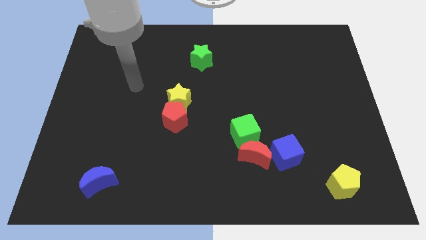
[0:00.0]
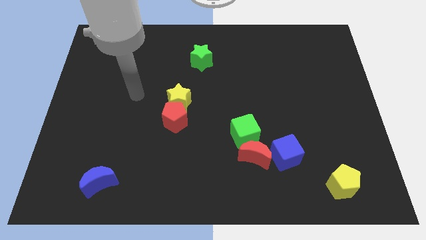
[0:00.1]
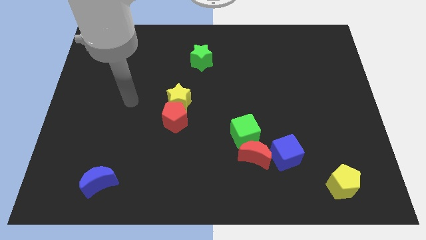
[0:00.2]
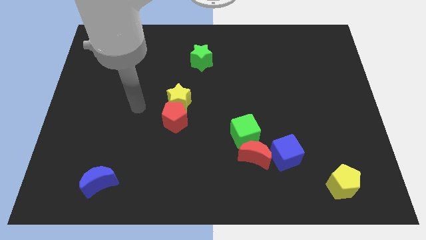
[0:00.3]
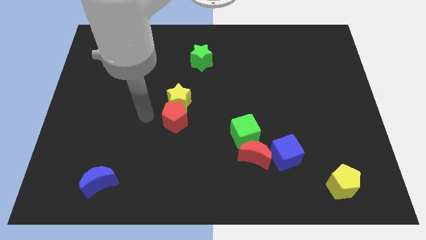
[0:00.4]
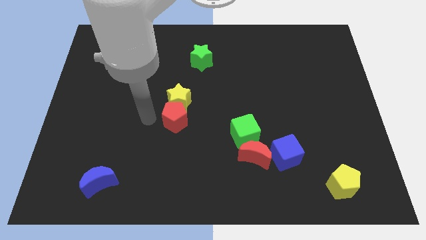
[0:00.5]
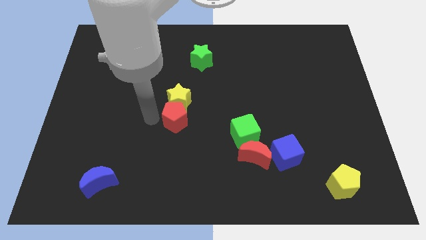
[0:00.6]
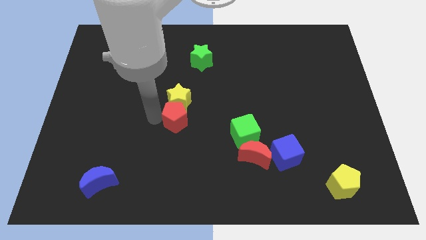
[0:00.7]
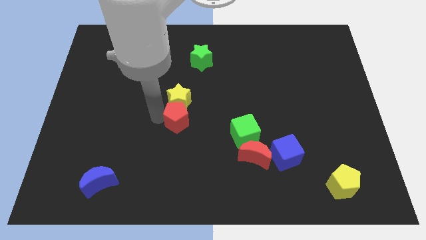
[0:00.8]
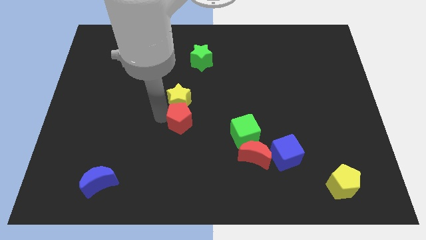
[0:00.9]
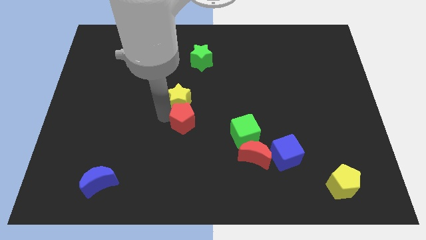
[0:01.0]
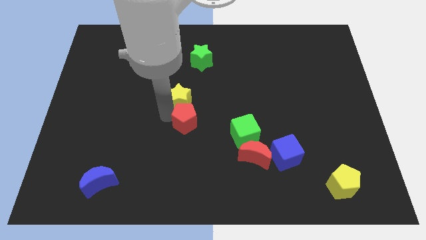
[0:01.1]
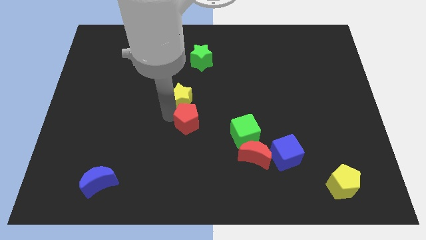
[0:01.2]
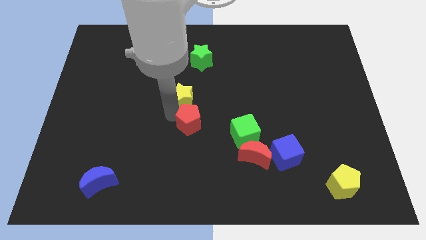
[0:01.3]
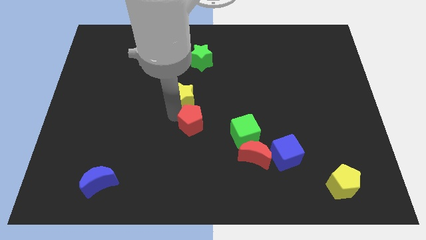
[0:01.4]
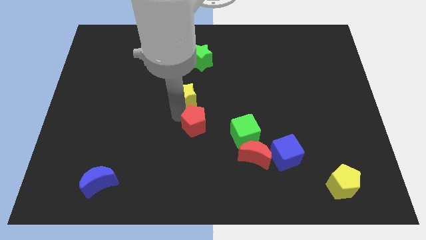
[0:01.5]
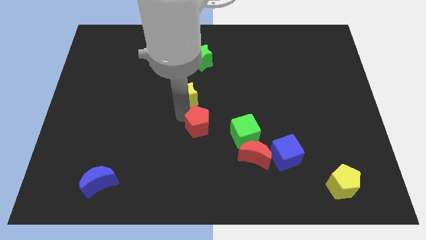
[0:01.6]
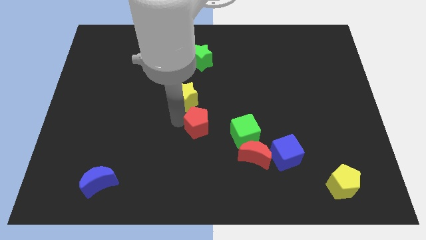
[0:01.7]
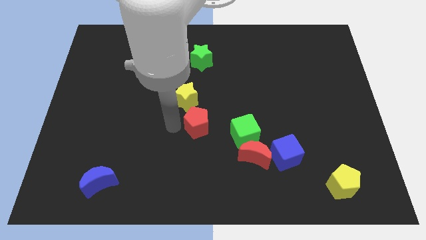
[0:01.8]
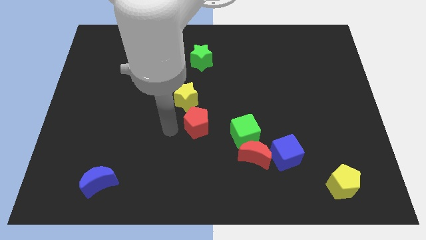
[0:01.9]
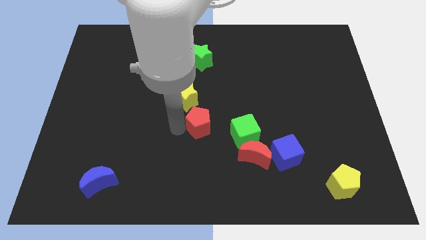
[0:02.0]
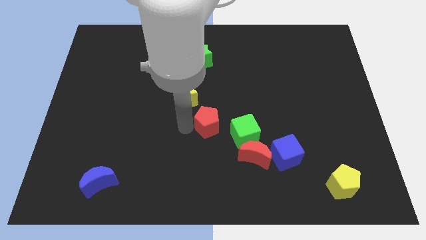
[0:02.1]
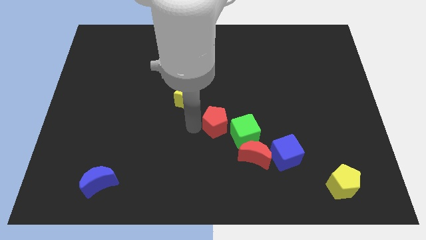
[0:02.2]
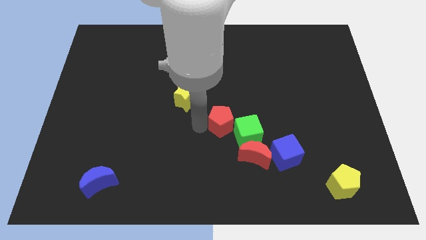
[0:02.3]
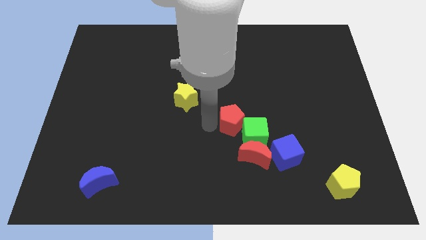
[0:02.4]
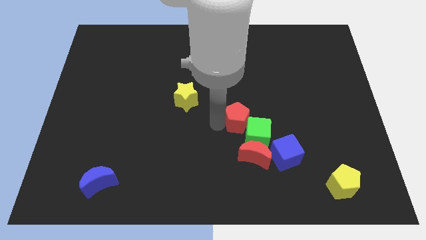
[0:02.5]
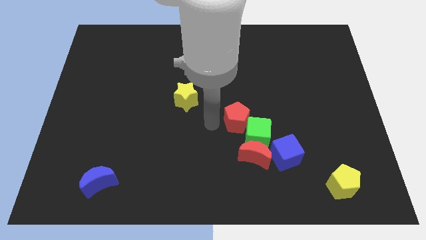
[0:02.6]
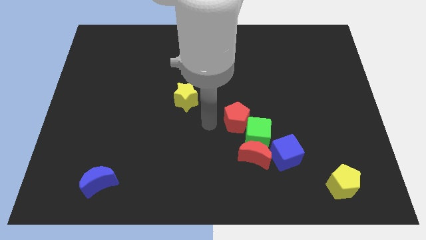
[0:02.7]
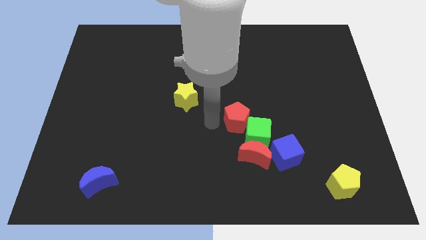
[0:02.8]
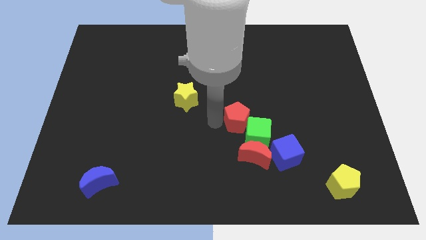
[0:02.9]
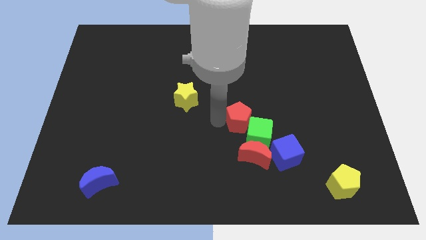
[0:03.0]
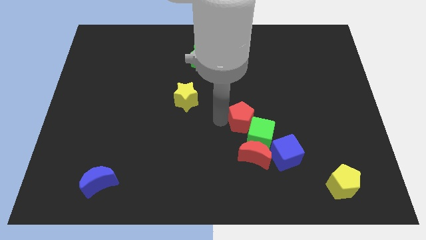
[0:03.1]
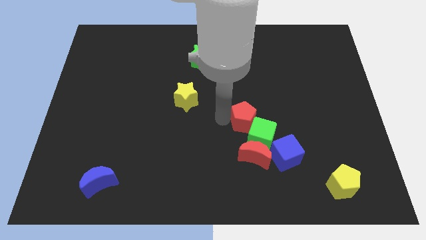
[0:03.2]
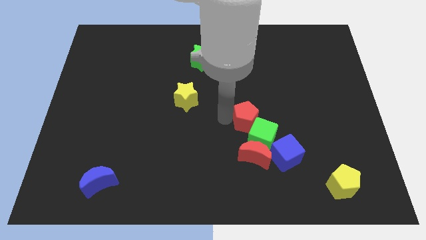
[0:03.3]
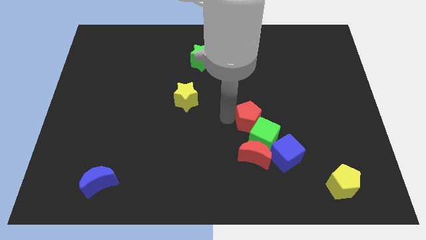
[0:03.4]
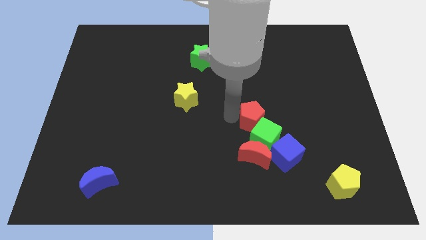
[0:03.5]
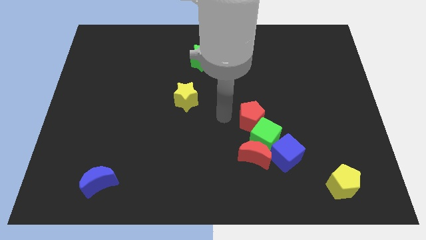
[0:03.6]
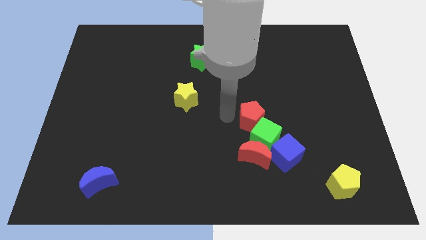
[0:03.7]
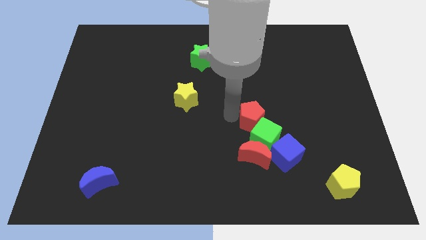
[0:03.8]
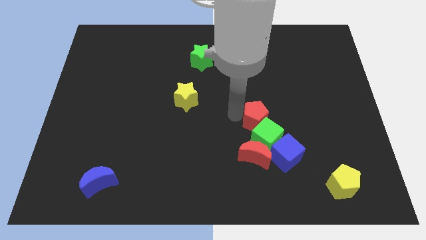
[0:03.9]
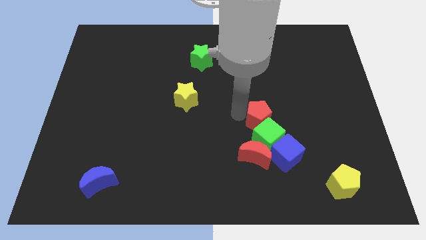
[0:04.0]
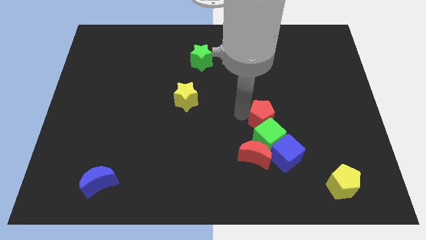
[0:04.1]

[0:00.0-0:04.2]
push the red pentagon to the right

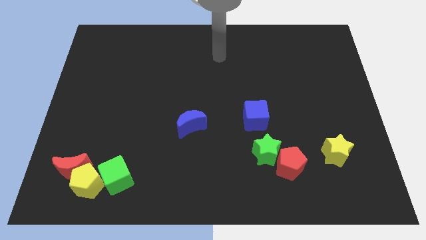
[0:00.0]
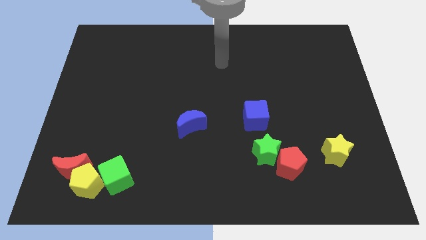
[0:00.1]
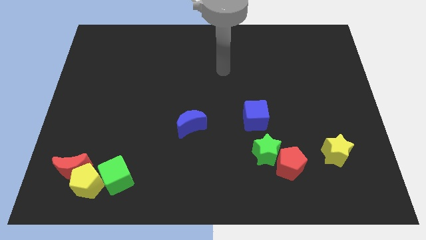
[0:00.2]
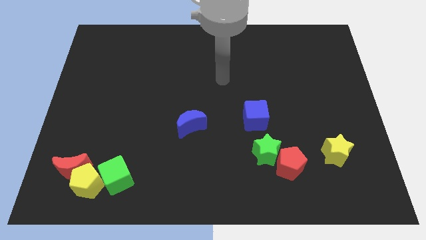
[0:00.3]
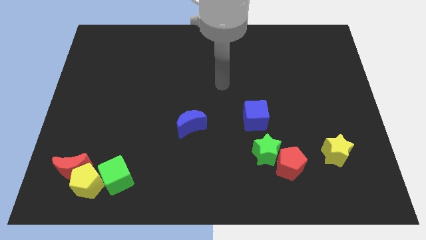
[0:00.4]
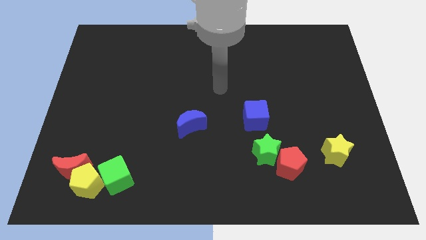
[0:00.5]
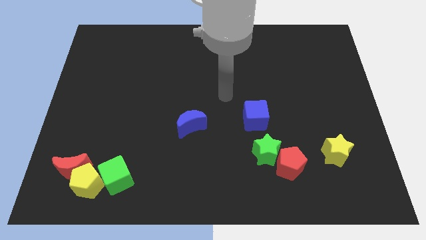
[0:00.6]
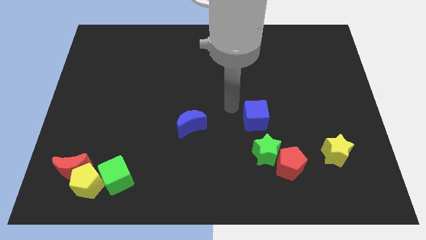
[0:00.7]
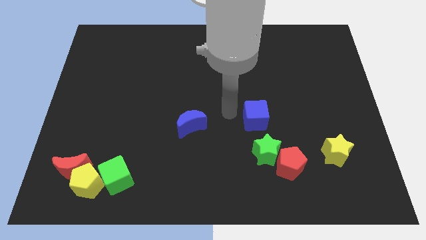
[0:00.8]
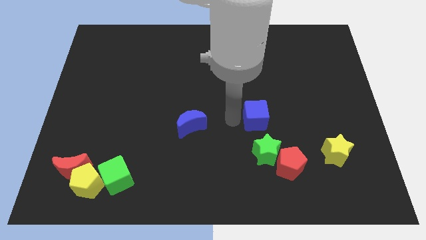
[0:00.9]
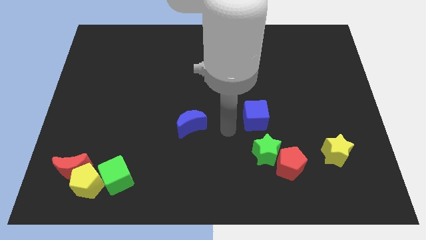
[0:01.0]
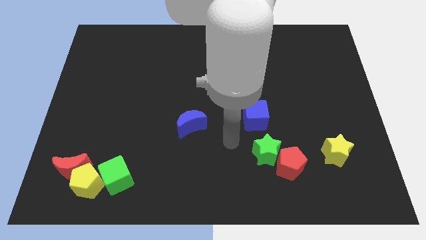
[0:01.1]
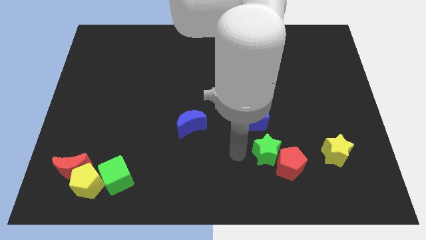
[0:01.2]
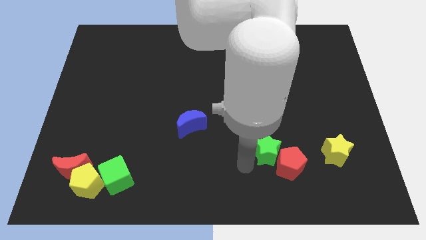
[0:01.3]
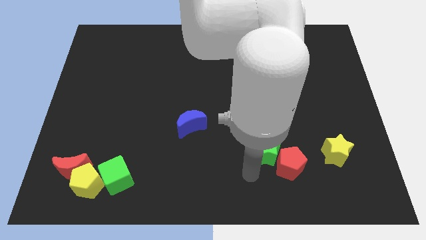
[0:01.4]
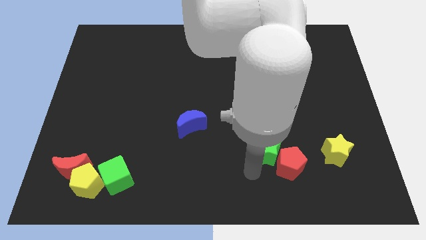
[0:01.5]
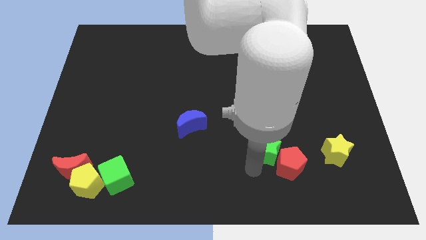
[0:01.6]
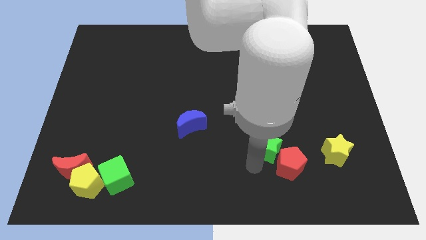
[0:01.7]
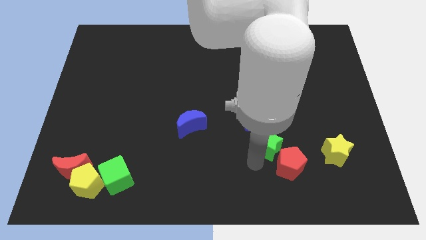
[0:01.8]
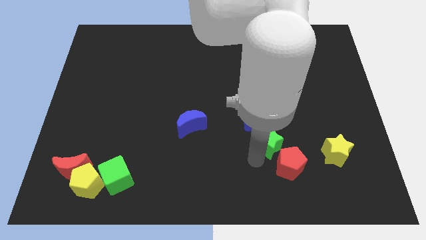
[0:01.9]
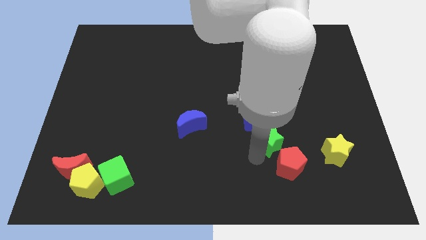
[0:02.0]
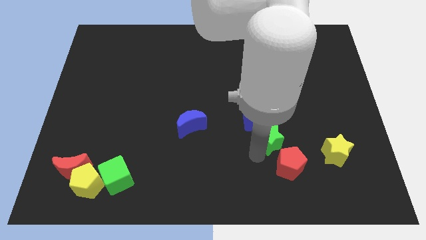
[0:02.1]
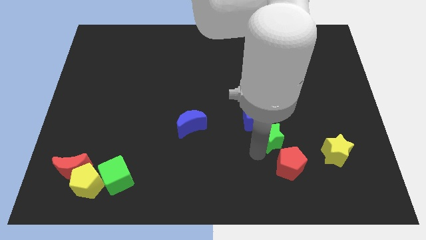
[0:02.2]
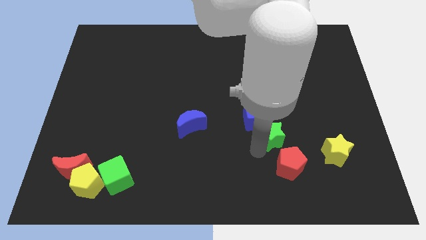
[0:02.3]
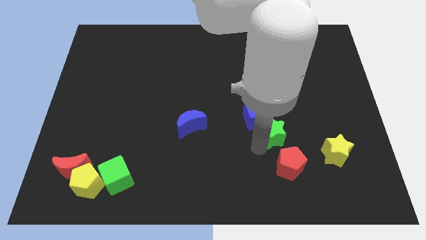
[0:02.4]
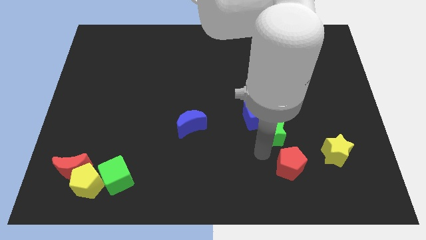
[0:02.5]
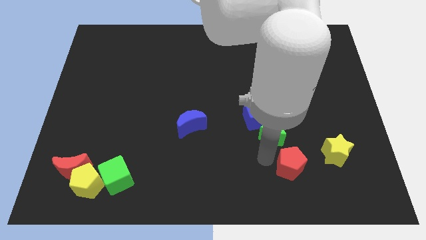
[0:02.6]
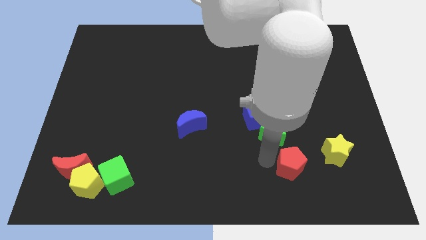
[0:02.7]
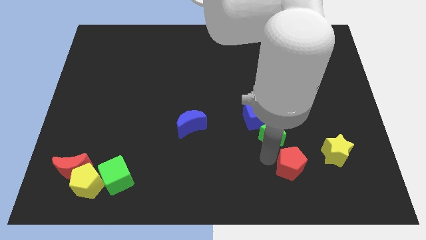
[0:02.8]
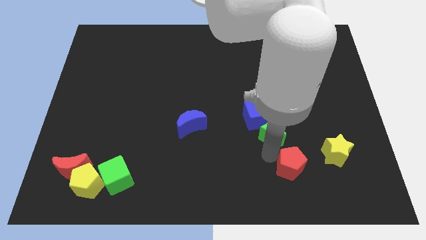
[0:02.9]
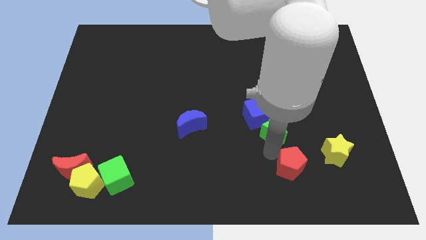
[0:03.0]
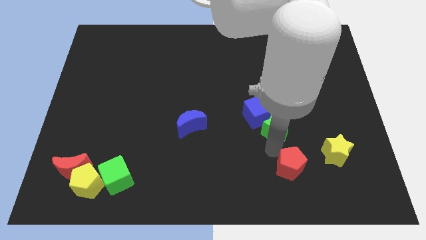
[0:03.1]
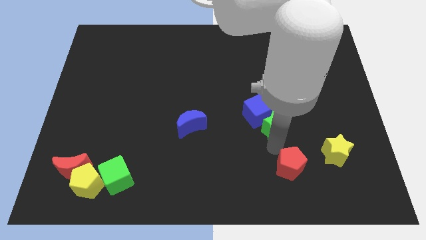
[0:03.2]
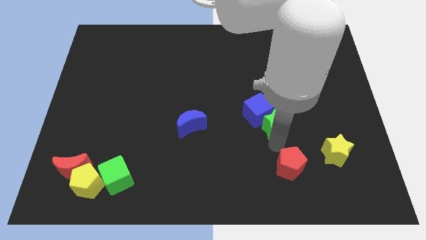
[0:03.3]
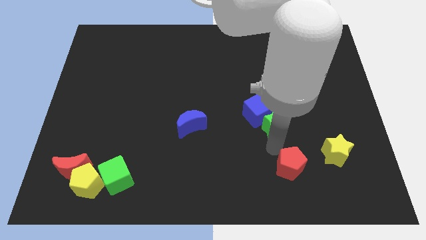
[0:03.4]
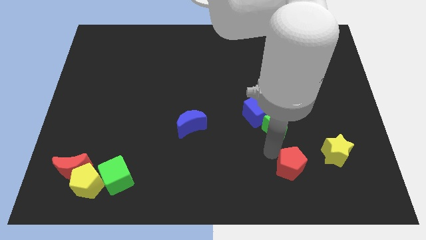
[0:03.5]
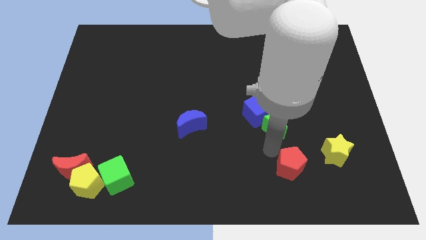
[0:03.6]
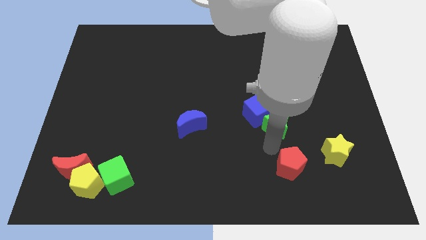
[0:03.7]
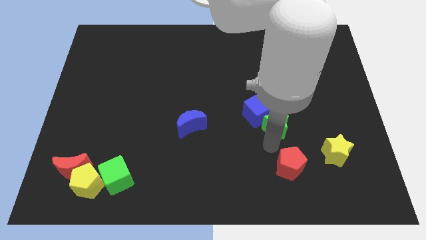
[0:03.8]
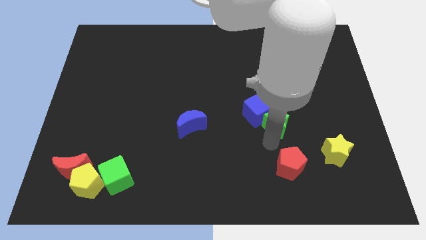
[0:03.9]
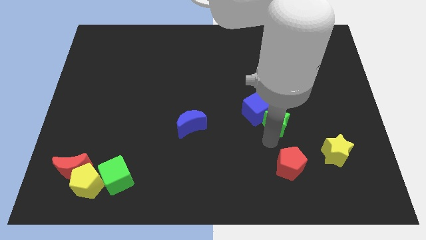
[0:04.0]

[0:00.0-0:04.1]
slightly slide the green star up
